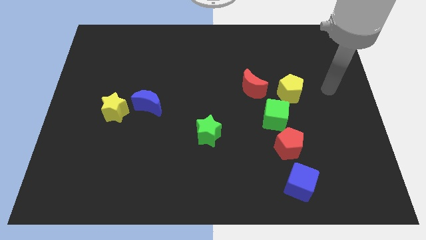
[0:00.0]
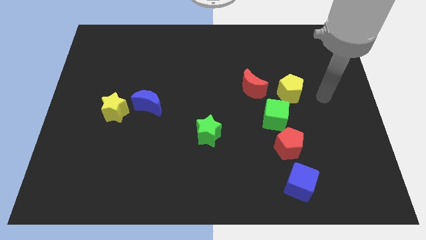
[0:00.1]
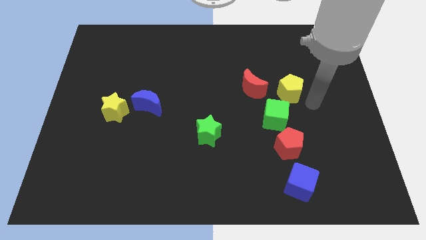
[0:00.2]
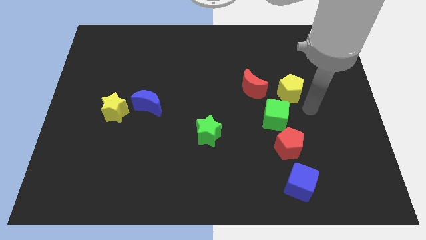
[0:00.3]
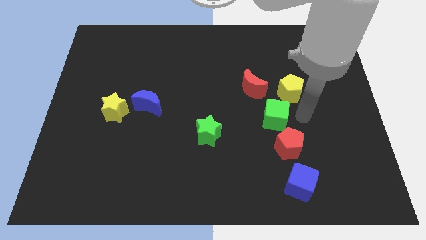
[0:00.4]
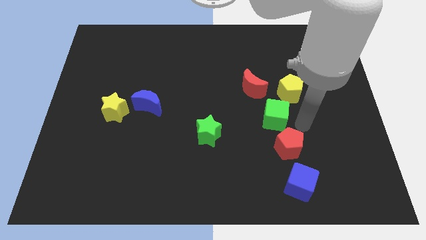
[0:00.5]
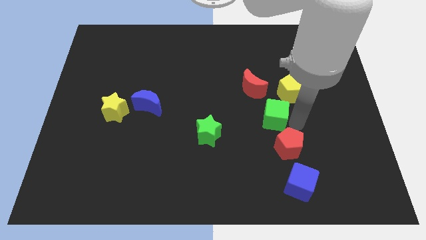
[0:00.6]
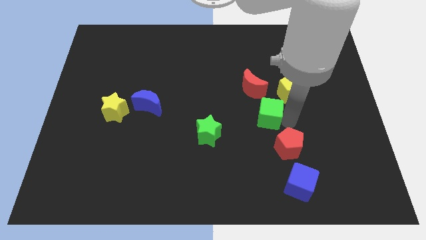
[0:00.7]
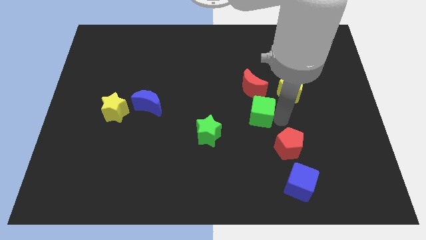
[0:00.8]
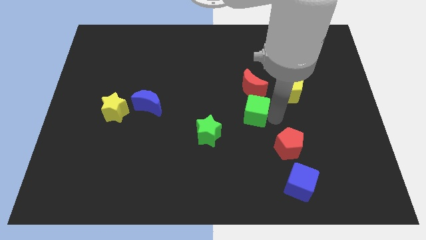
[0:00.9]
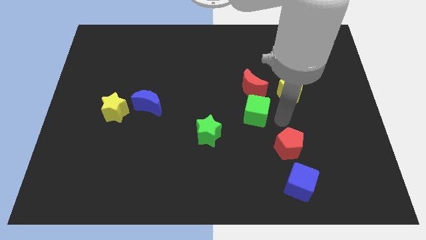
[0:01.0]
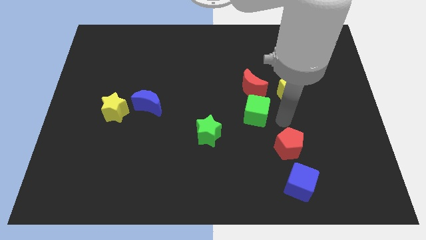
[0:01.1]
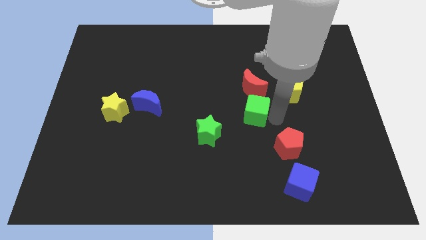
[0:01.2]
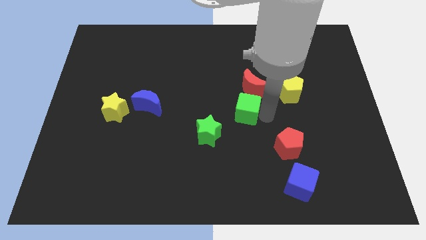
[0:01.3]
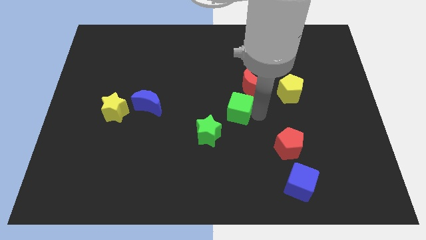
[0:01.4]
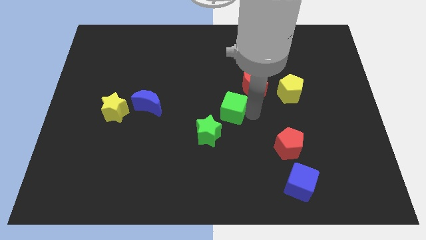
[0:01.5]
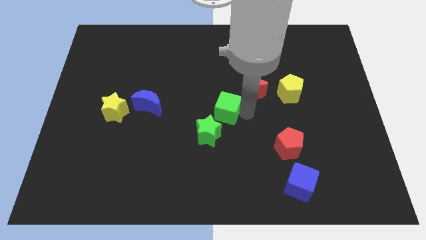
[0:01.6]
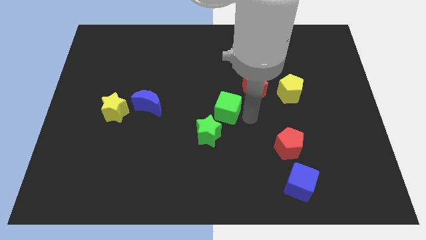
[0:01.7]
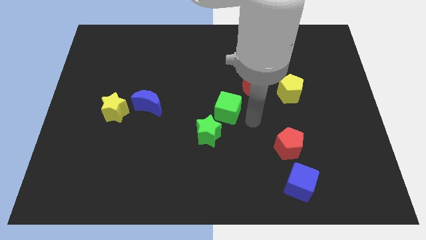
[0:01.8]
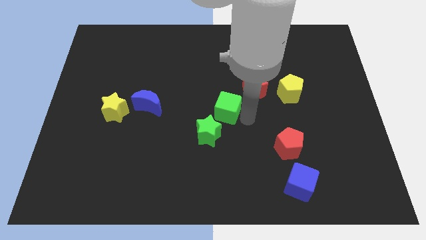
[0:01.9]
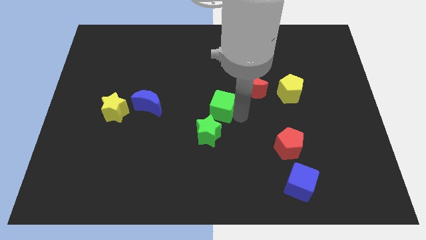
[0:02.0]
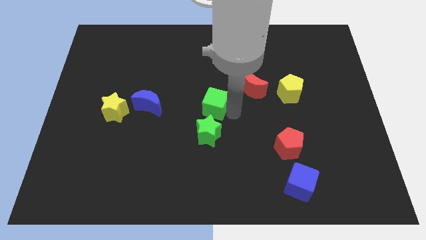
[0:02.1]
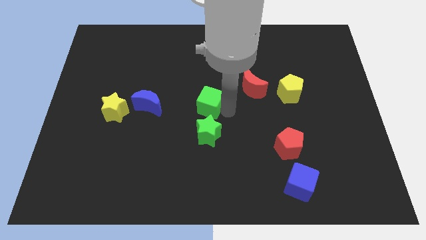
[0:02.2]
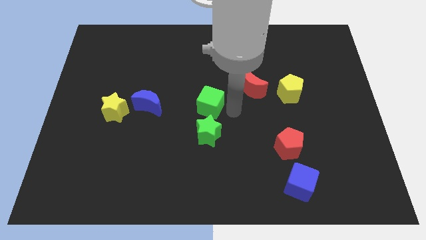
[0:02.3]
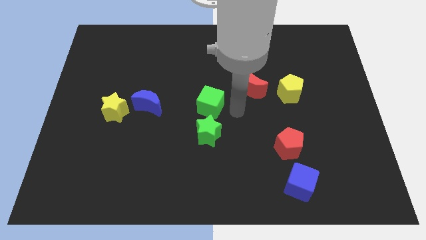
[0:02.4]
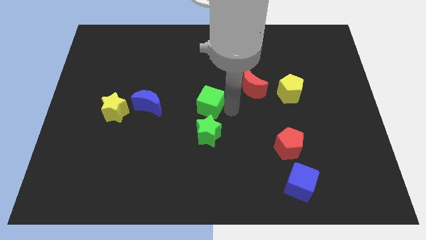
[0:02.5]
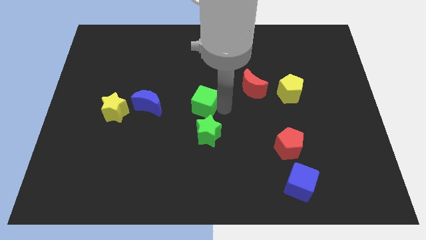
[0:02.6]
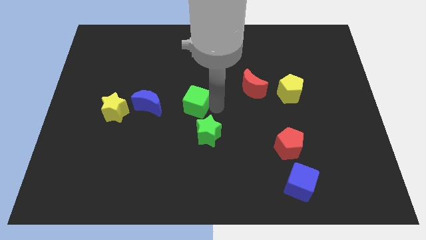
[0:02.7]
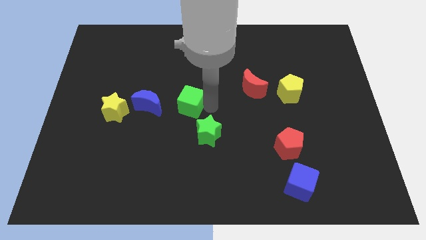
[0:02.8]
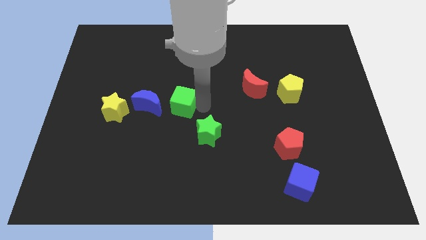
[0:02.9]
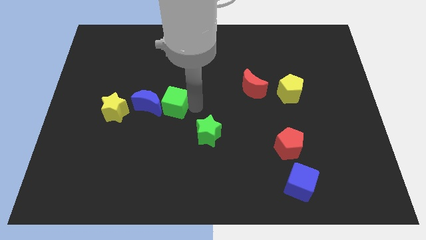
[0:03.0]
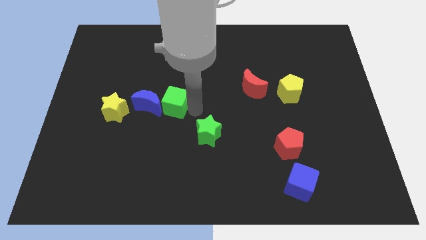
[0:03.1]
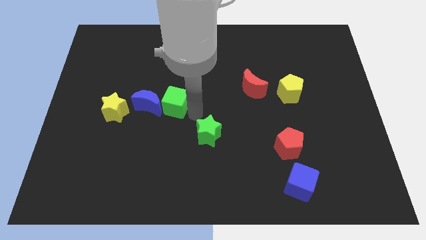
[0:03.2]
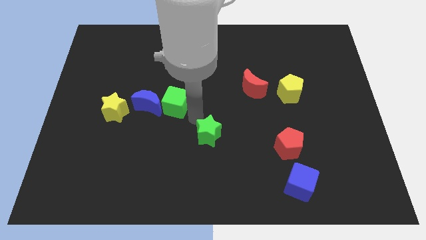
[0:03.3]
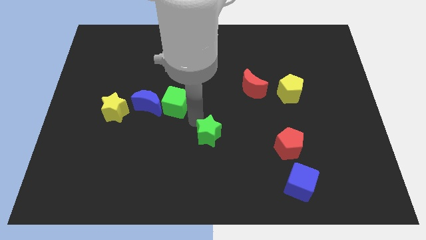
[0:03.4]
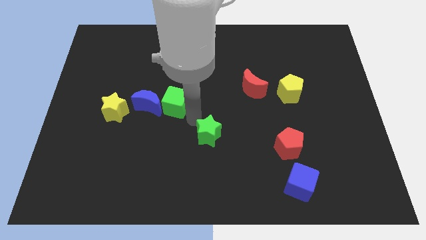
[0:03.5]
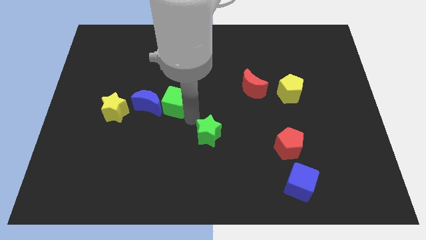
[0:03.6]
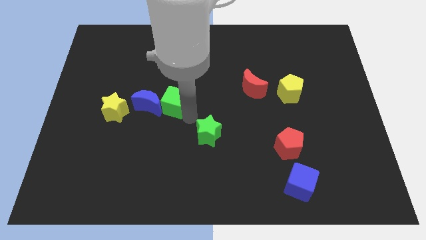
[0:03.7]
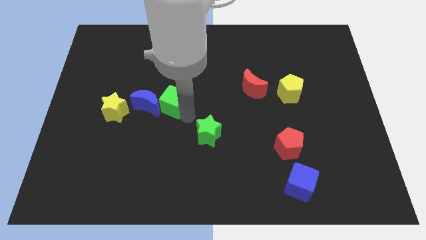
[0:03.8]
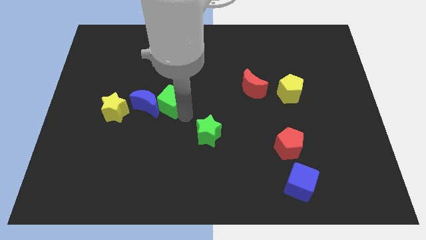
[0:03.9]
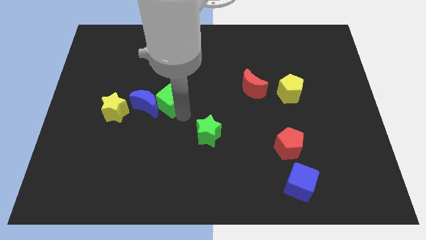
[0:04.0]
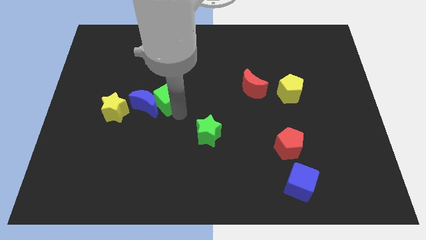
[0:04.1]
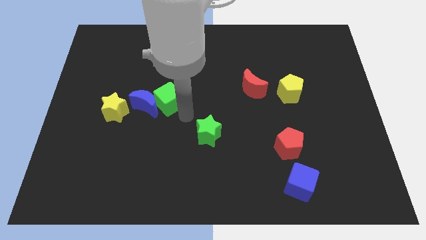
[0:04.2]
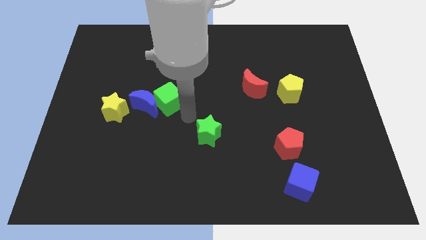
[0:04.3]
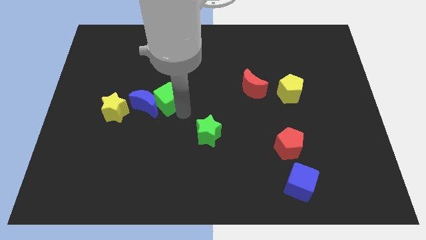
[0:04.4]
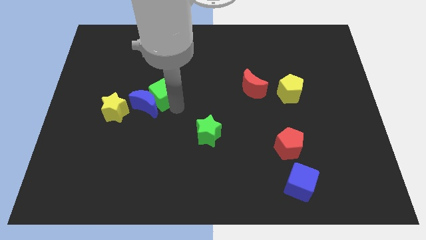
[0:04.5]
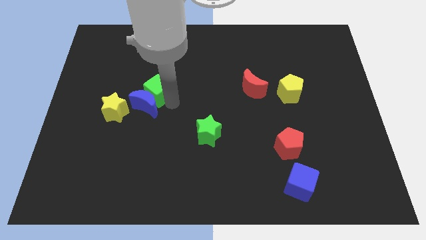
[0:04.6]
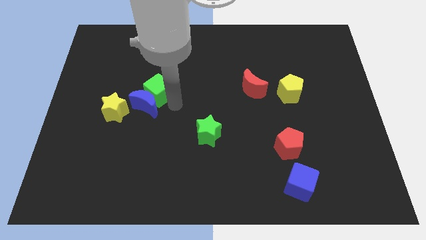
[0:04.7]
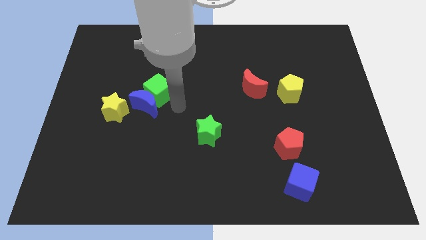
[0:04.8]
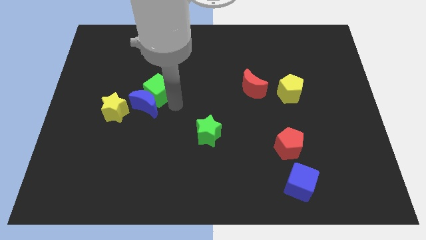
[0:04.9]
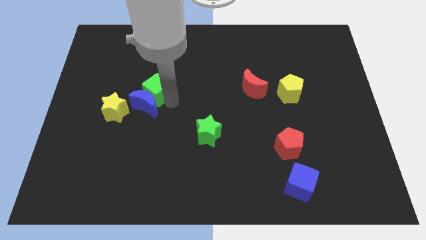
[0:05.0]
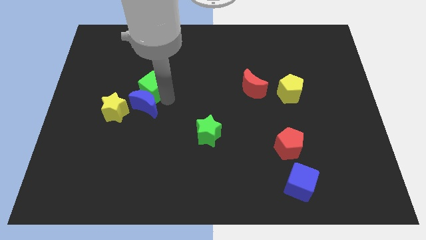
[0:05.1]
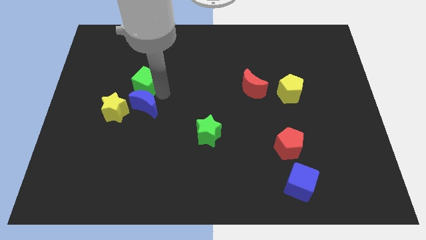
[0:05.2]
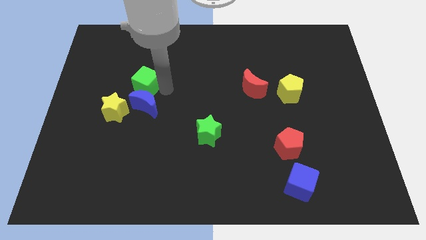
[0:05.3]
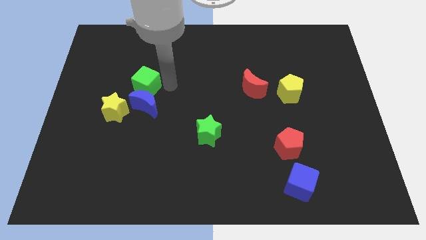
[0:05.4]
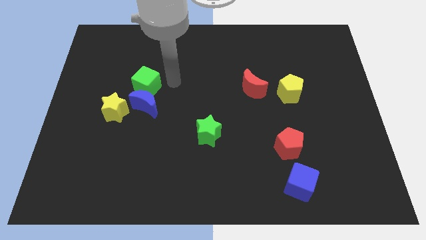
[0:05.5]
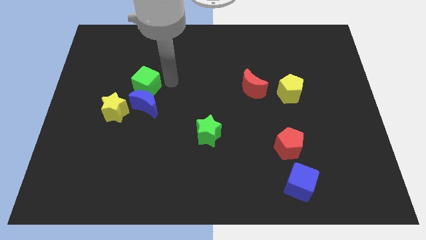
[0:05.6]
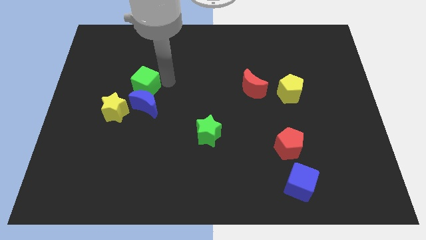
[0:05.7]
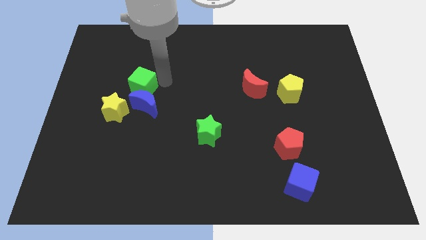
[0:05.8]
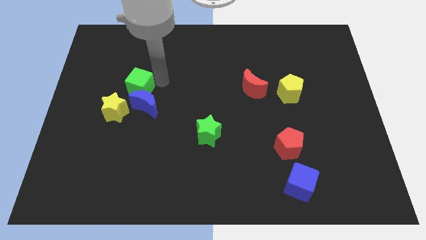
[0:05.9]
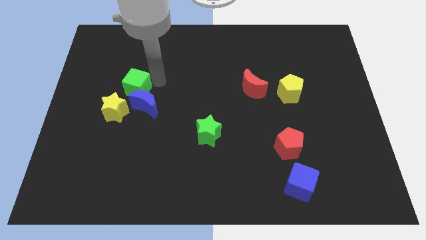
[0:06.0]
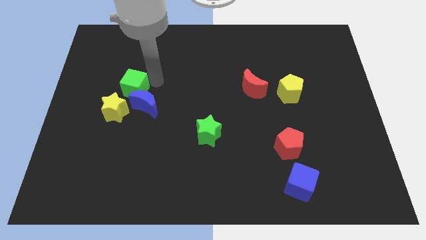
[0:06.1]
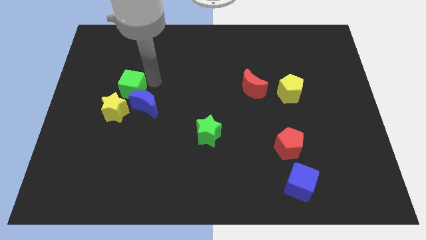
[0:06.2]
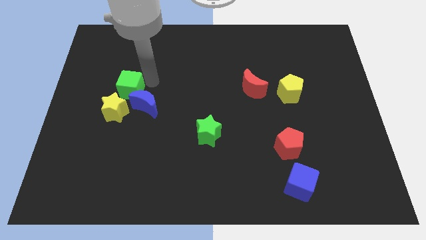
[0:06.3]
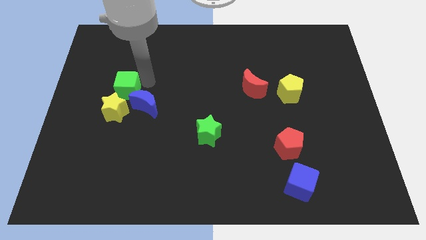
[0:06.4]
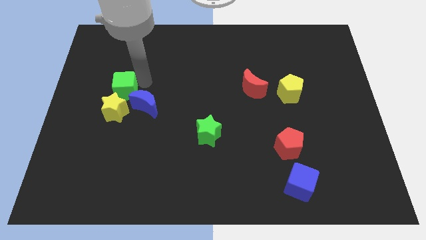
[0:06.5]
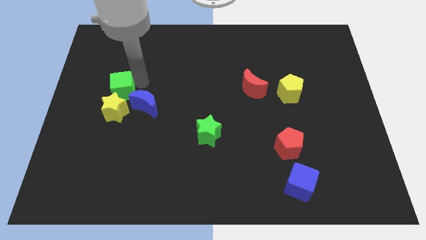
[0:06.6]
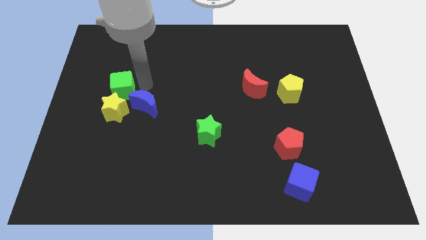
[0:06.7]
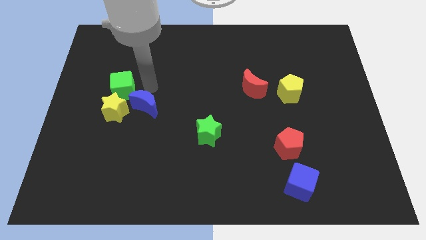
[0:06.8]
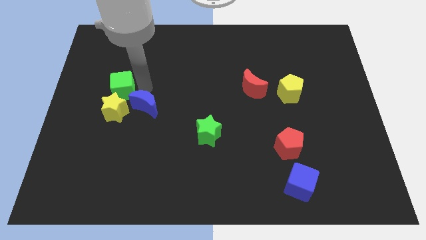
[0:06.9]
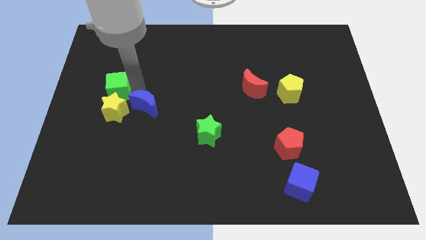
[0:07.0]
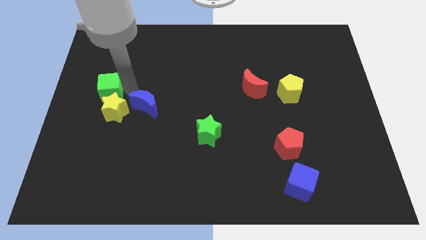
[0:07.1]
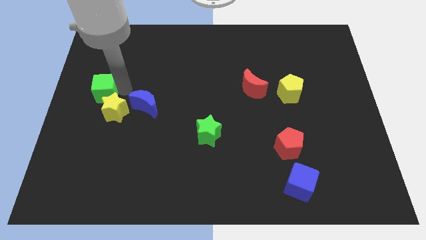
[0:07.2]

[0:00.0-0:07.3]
push the green cube to the left side of the board
